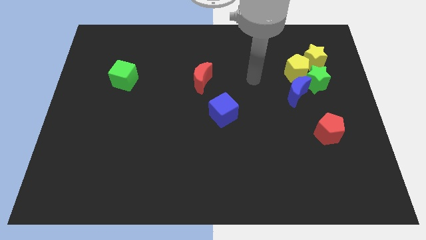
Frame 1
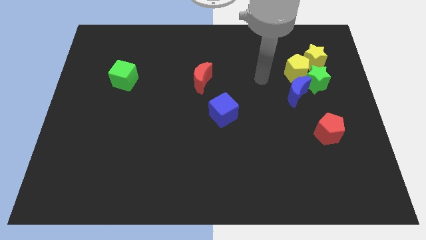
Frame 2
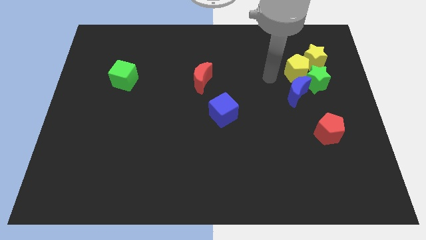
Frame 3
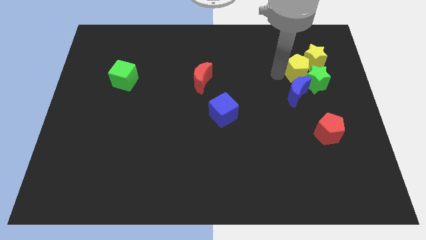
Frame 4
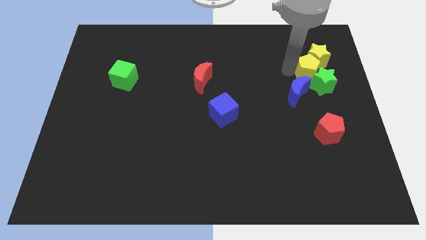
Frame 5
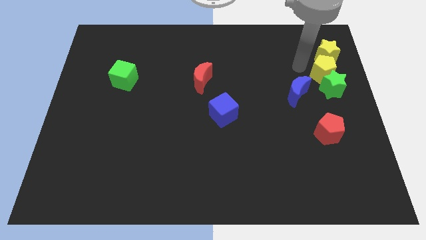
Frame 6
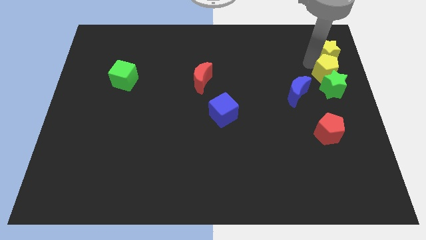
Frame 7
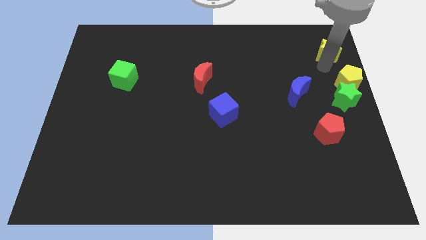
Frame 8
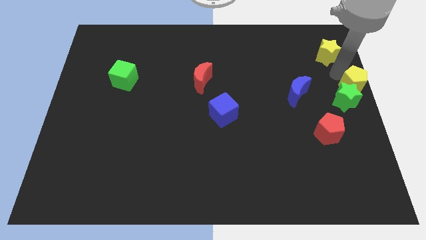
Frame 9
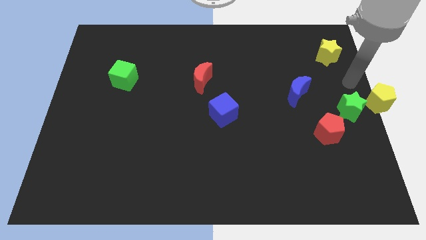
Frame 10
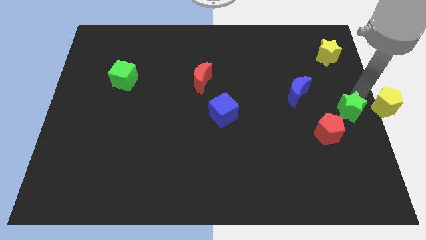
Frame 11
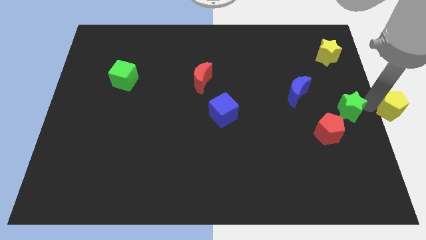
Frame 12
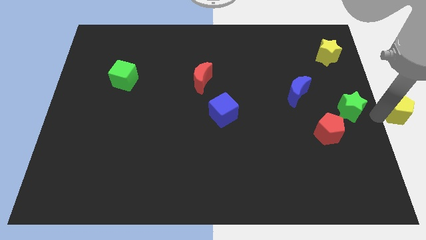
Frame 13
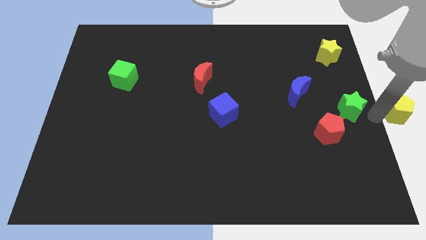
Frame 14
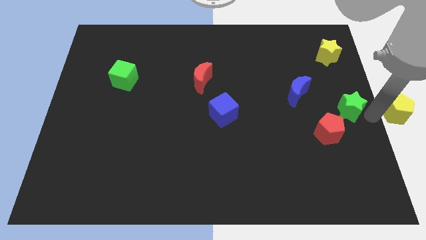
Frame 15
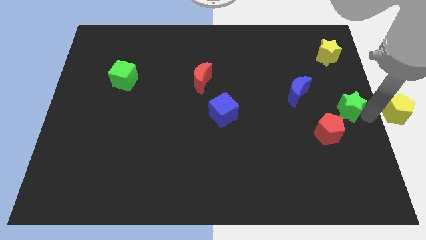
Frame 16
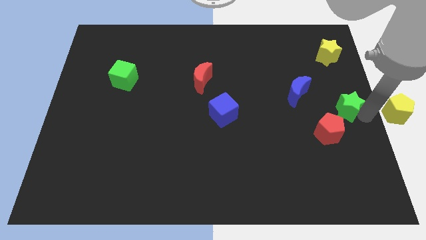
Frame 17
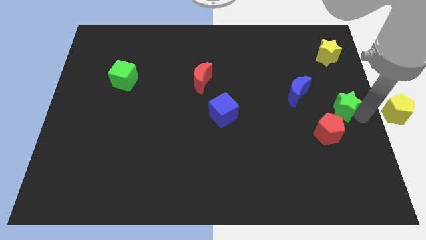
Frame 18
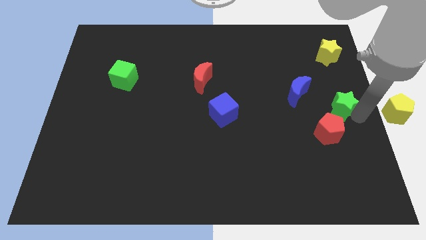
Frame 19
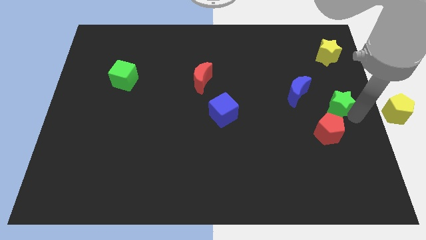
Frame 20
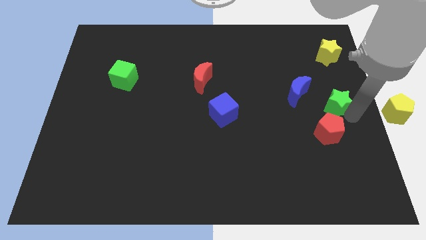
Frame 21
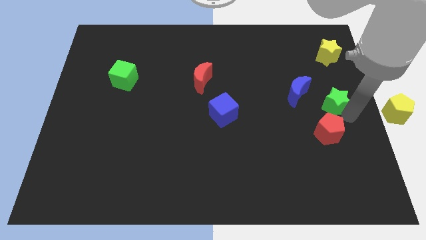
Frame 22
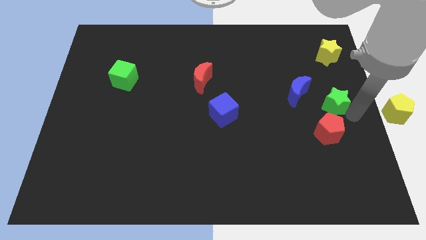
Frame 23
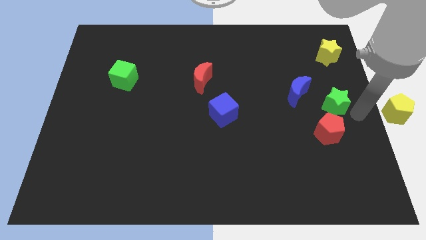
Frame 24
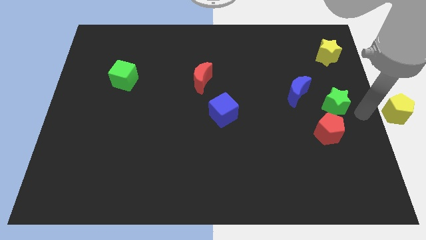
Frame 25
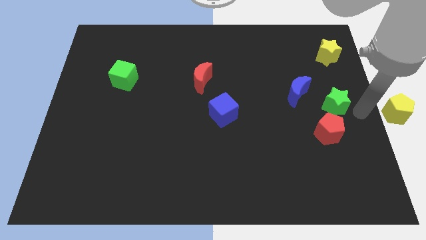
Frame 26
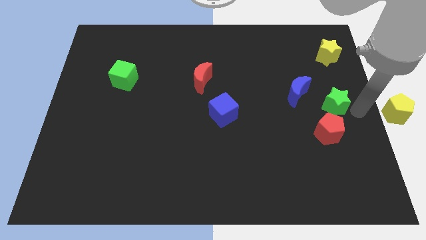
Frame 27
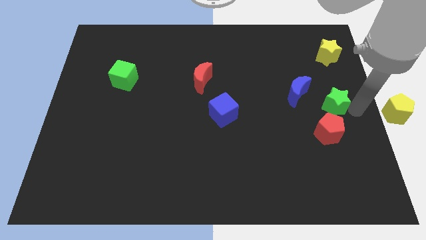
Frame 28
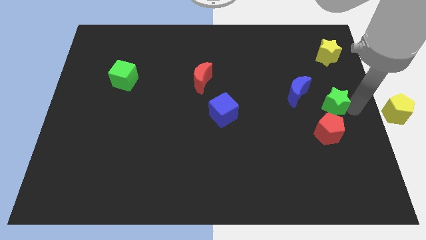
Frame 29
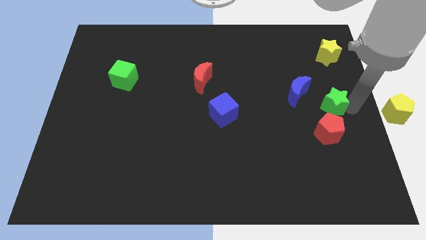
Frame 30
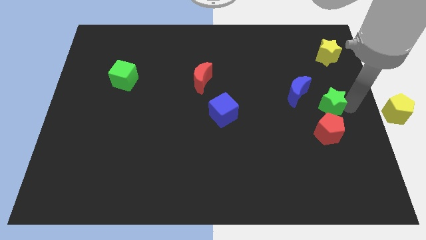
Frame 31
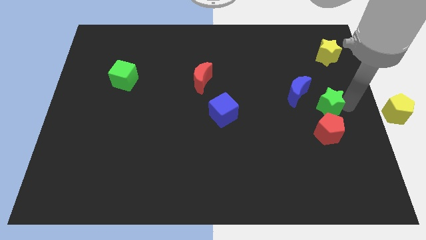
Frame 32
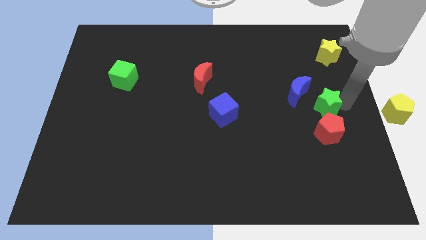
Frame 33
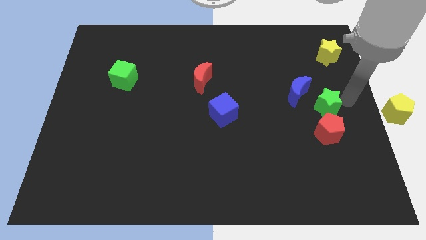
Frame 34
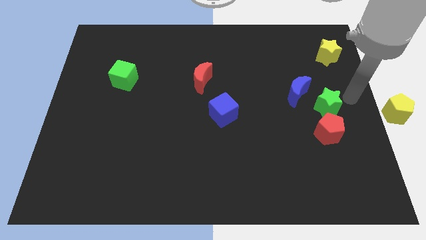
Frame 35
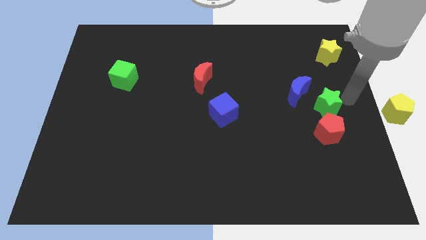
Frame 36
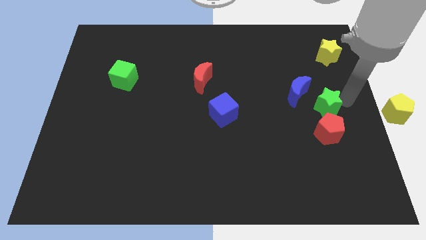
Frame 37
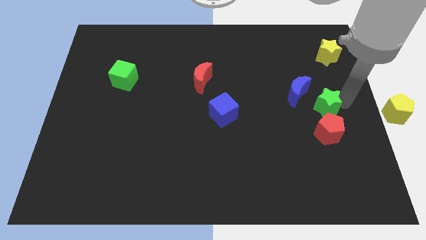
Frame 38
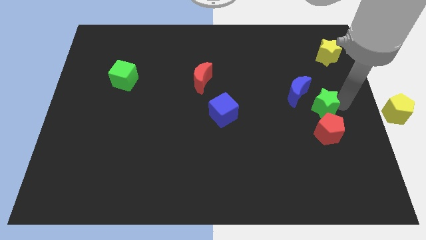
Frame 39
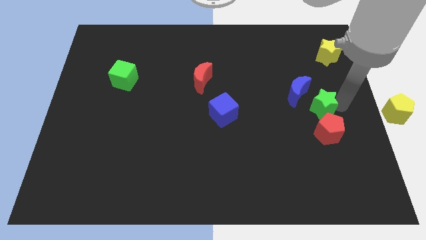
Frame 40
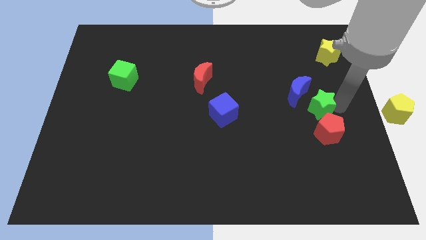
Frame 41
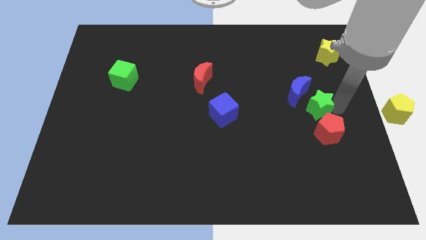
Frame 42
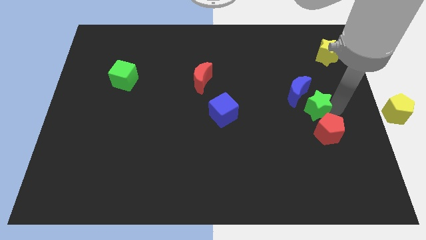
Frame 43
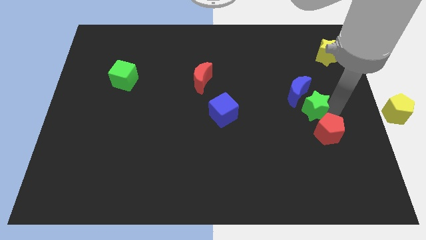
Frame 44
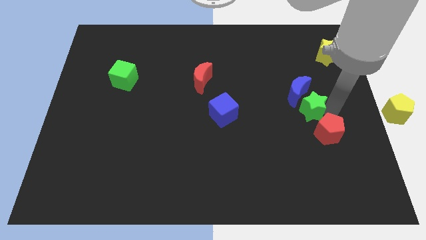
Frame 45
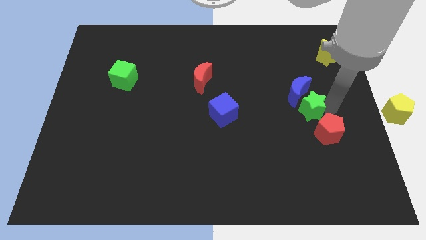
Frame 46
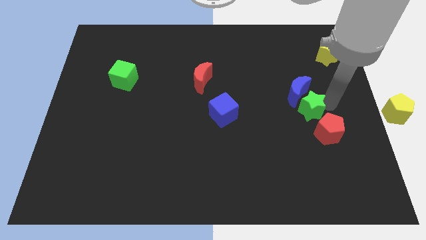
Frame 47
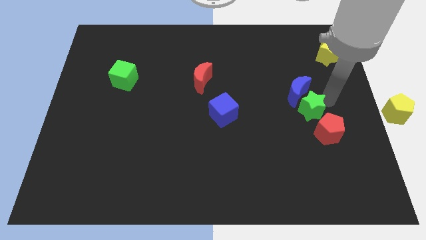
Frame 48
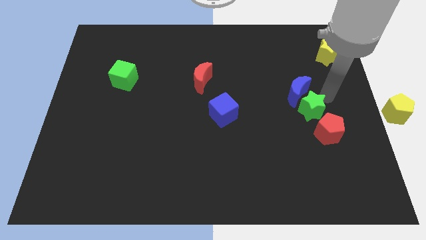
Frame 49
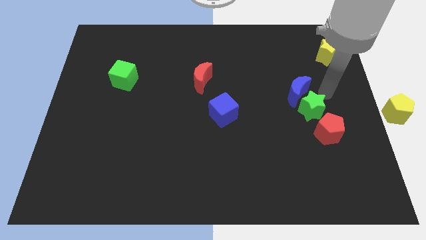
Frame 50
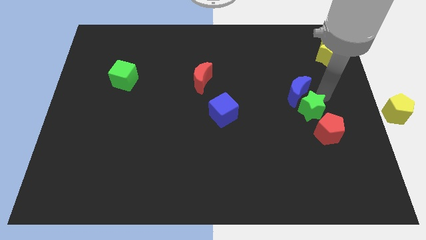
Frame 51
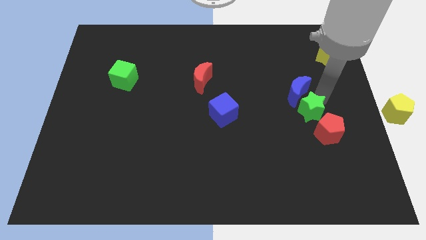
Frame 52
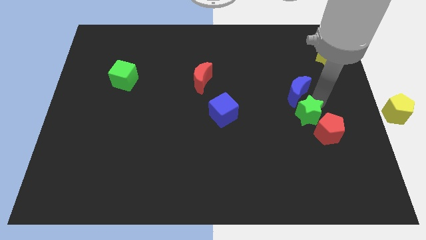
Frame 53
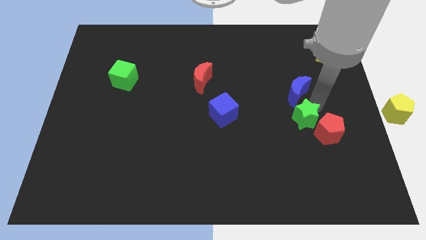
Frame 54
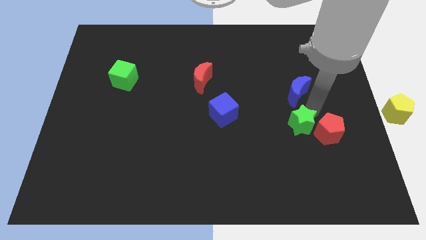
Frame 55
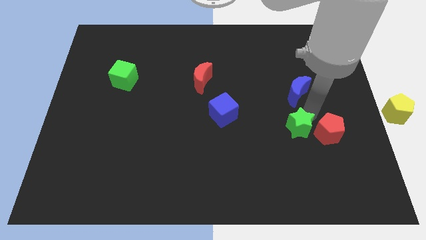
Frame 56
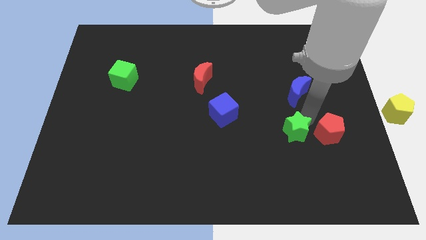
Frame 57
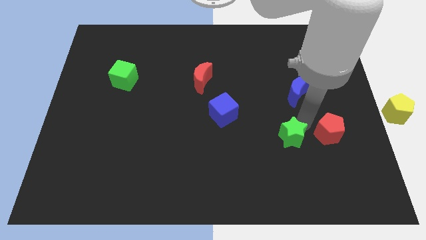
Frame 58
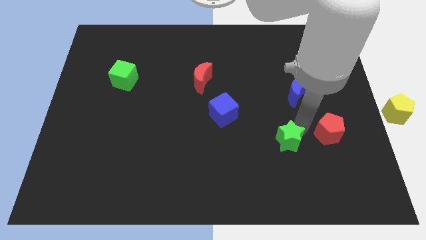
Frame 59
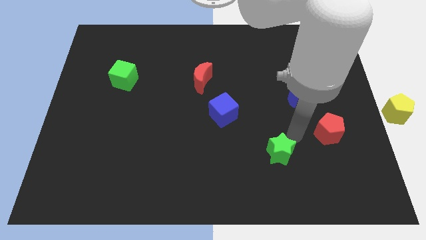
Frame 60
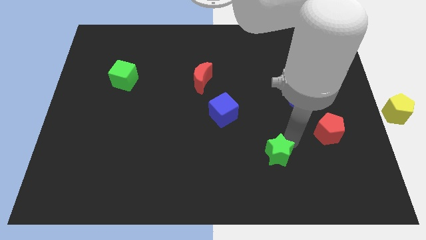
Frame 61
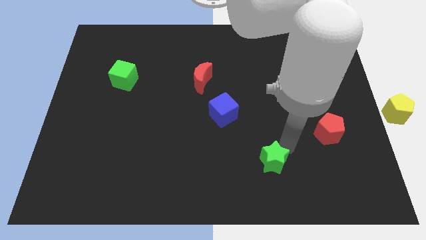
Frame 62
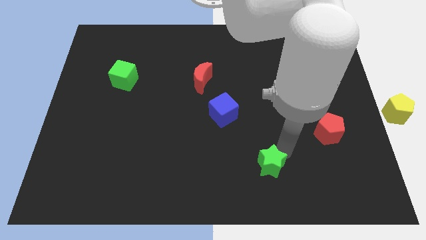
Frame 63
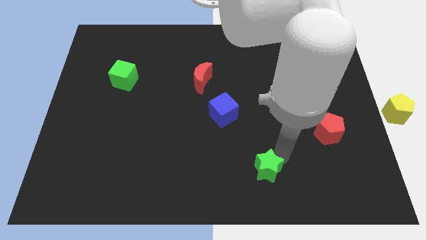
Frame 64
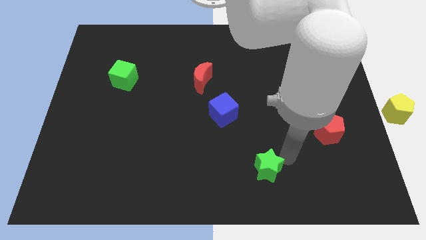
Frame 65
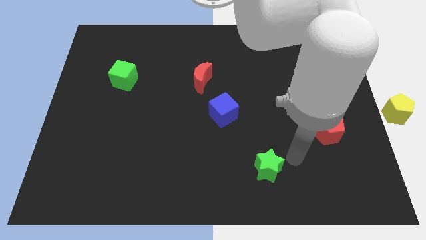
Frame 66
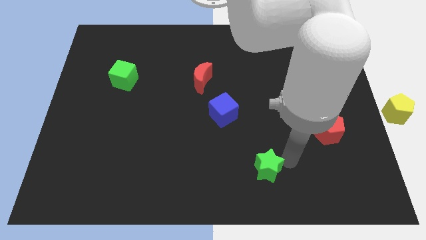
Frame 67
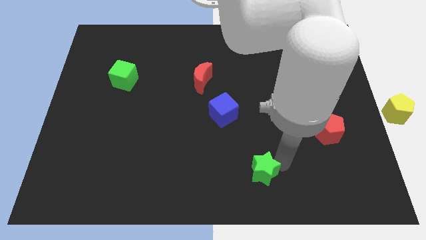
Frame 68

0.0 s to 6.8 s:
move the green star to the bottom side
